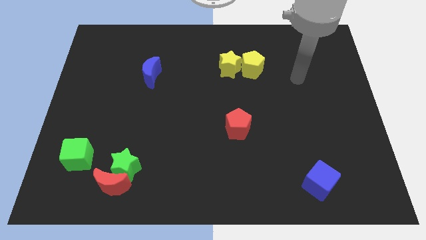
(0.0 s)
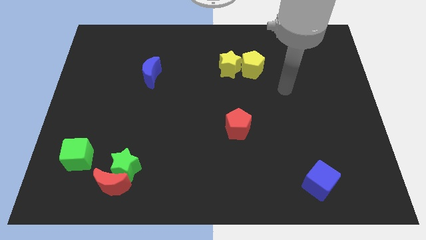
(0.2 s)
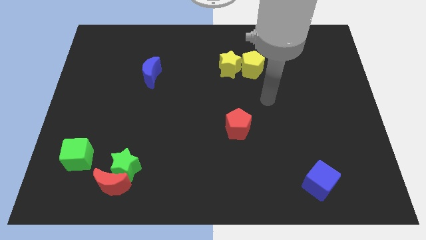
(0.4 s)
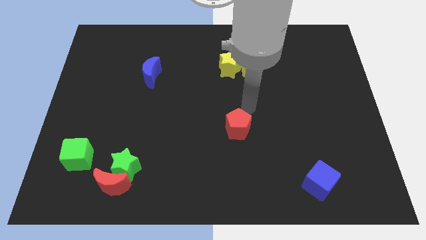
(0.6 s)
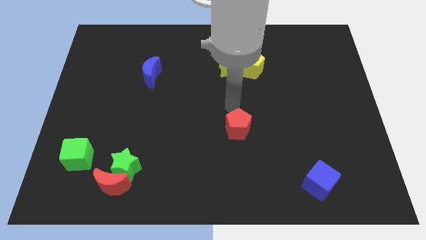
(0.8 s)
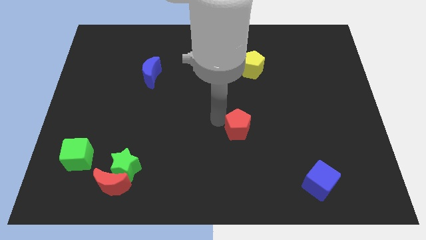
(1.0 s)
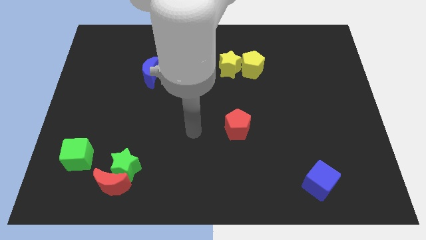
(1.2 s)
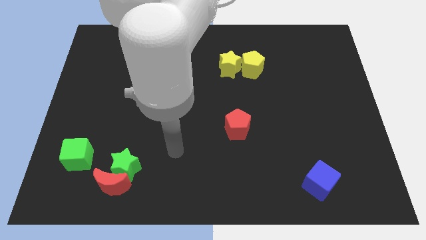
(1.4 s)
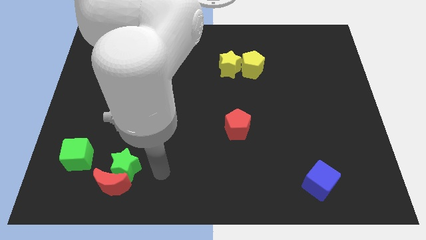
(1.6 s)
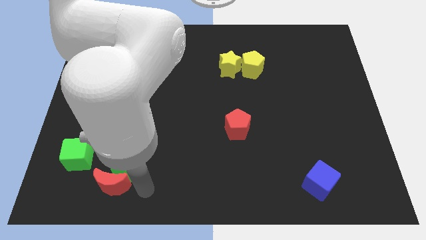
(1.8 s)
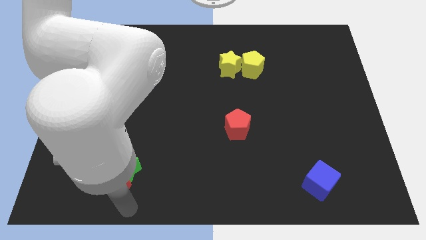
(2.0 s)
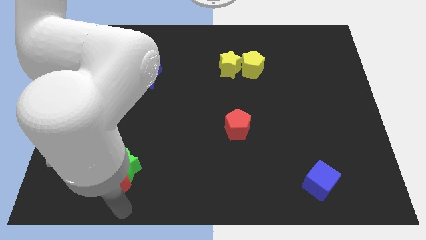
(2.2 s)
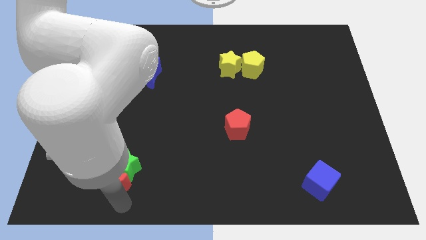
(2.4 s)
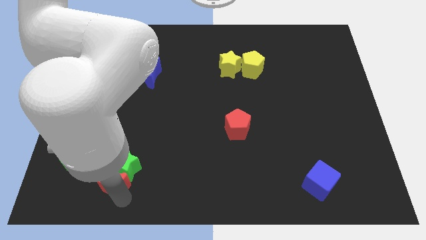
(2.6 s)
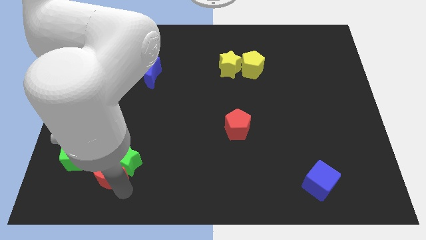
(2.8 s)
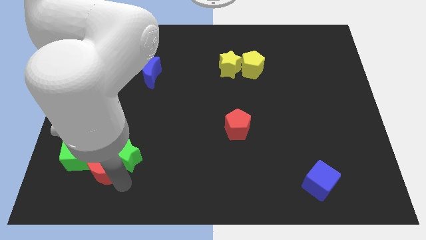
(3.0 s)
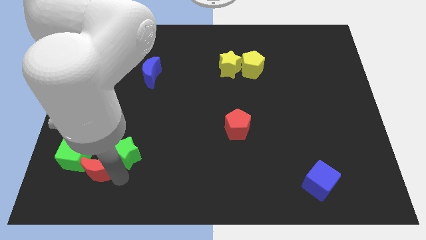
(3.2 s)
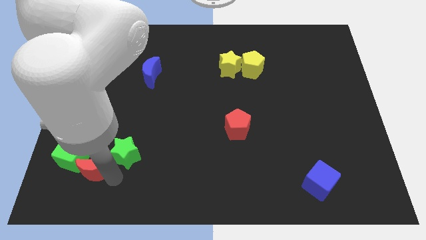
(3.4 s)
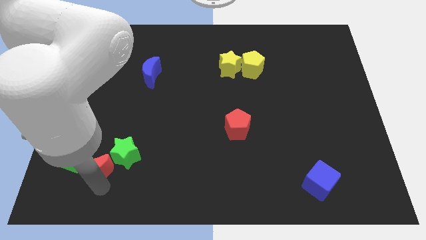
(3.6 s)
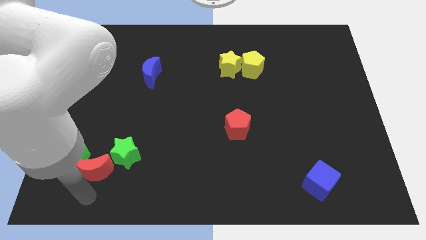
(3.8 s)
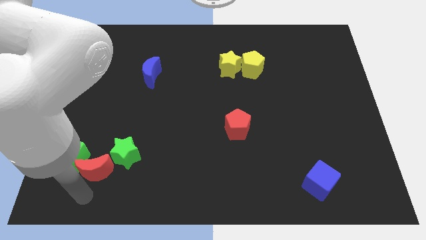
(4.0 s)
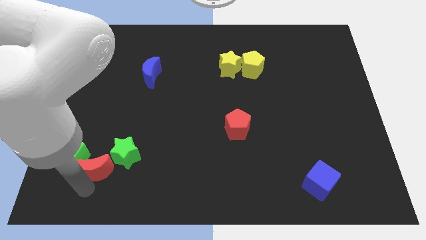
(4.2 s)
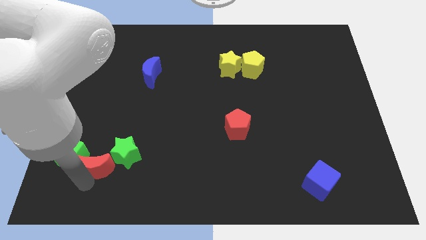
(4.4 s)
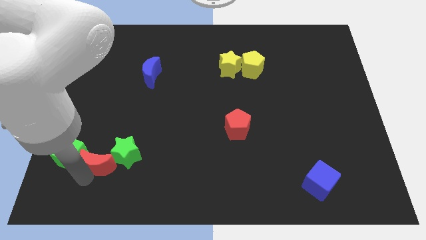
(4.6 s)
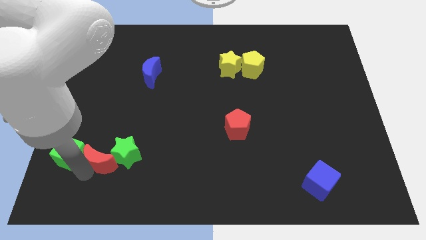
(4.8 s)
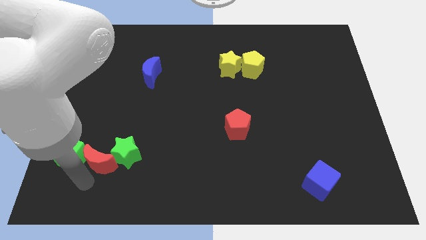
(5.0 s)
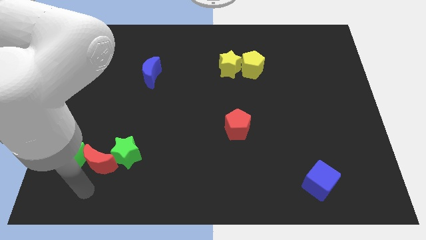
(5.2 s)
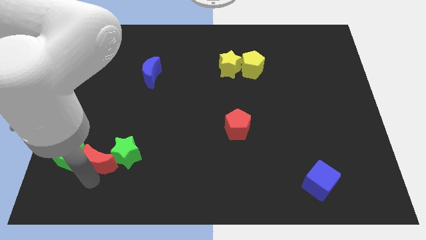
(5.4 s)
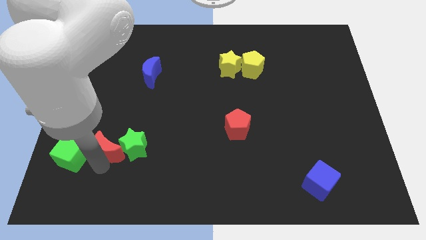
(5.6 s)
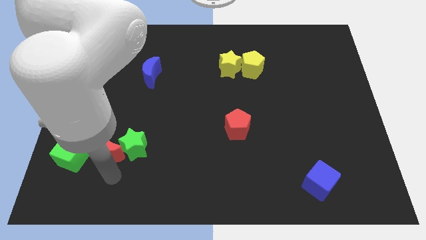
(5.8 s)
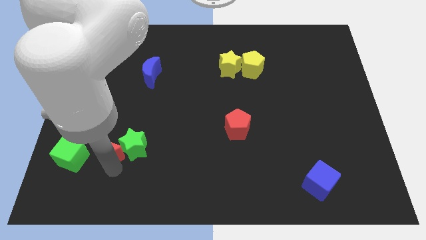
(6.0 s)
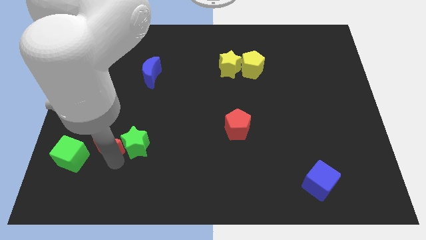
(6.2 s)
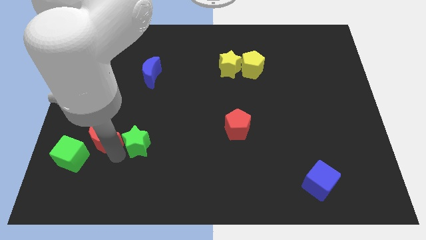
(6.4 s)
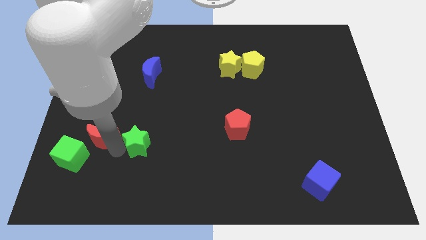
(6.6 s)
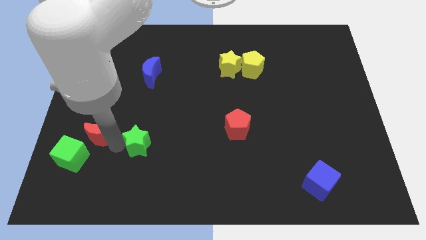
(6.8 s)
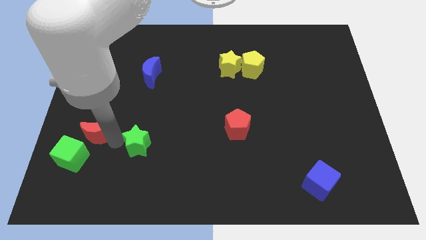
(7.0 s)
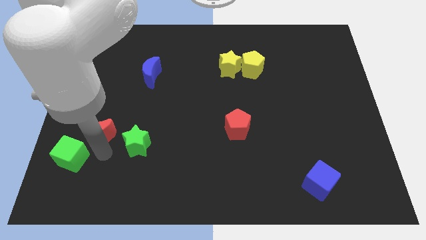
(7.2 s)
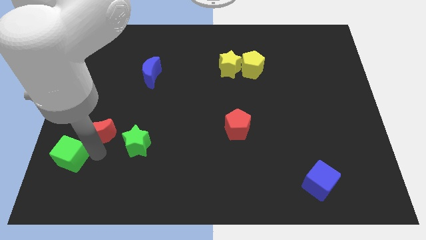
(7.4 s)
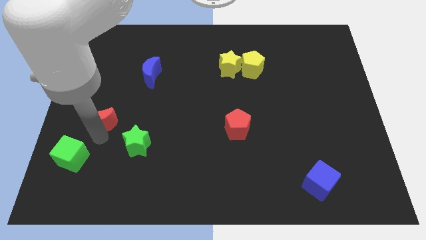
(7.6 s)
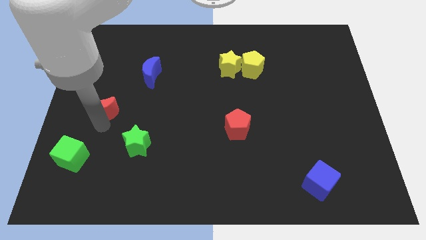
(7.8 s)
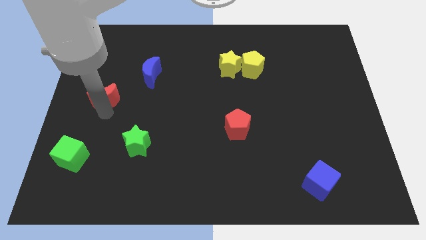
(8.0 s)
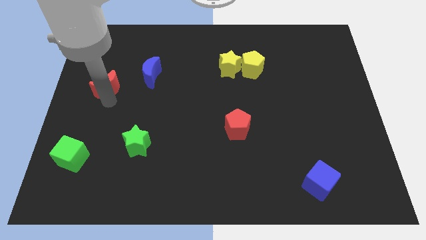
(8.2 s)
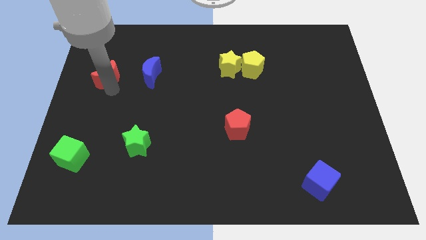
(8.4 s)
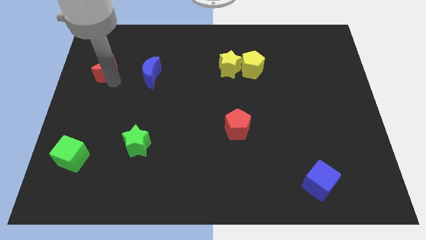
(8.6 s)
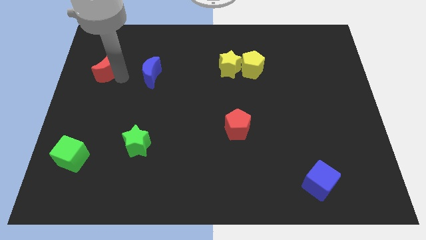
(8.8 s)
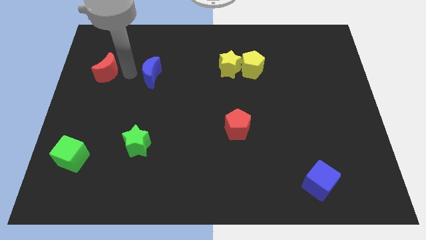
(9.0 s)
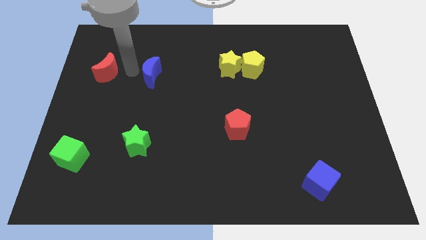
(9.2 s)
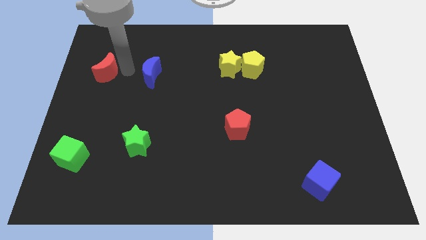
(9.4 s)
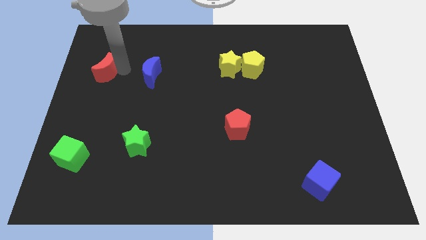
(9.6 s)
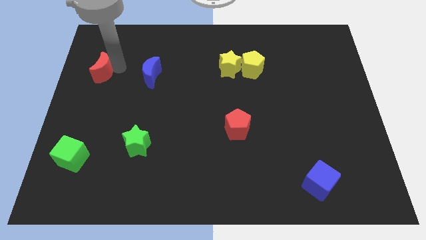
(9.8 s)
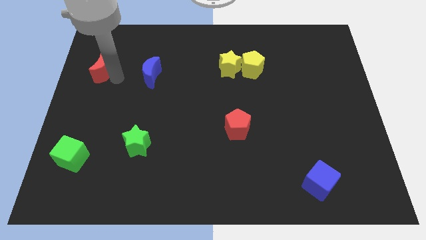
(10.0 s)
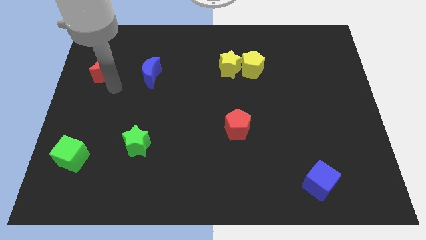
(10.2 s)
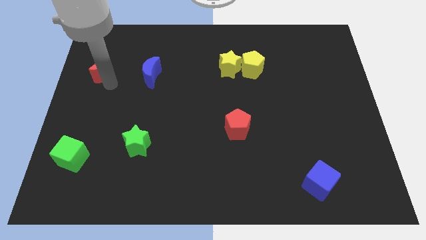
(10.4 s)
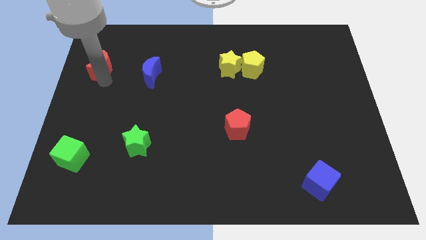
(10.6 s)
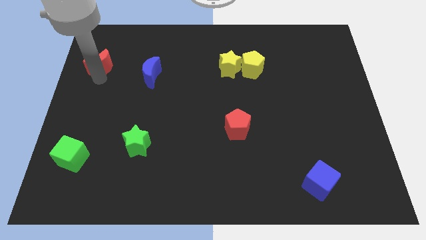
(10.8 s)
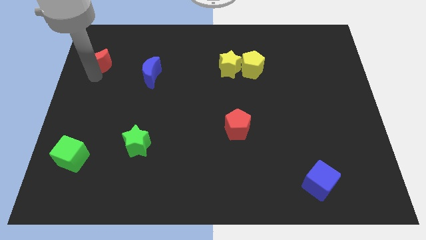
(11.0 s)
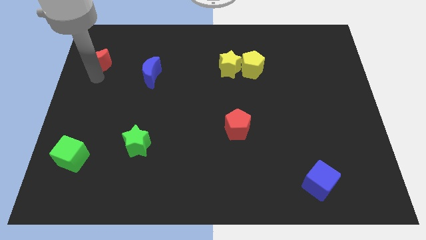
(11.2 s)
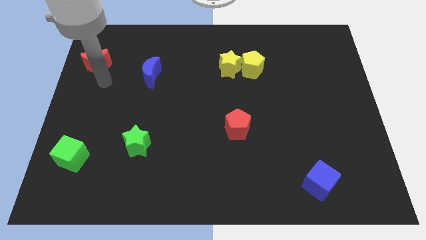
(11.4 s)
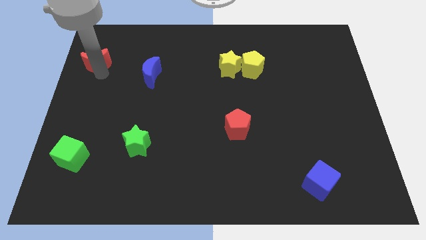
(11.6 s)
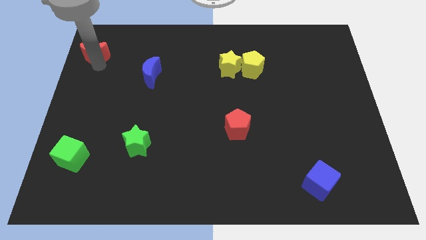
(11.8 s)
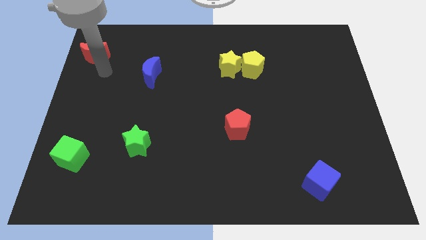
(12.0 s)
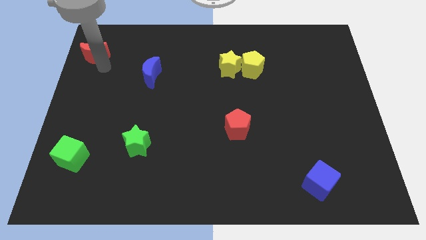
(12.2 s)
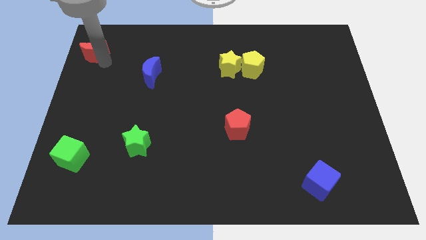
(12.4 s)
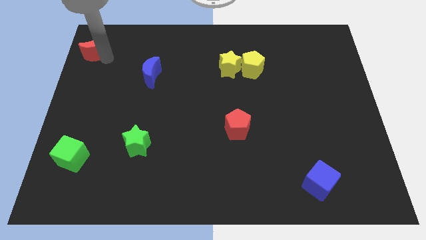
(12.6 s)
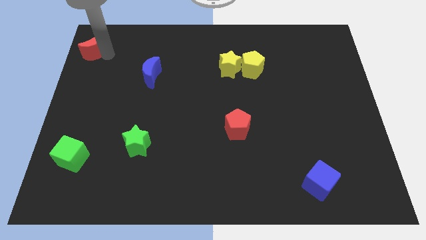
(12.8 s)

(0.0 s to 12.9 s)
slide the red moon to the top left corner
